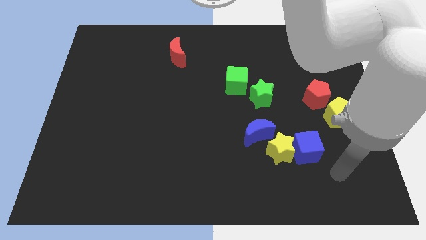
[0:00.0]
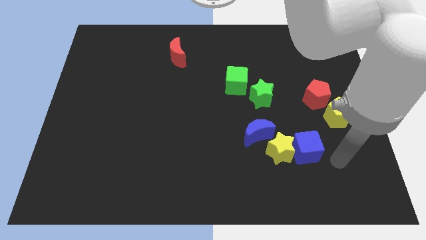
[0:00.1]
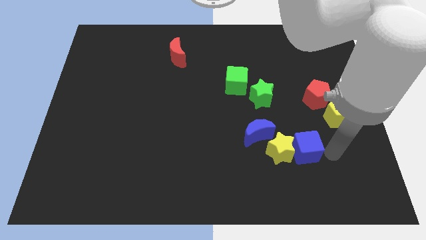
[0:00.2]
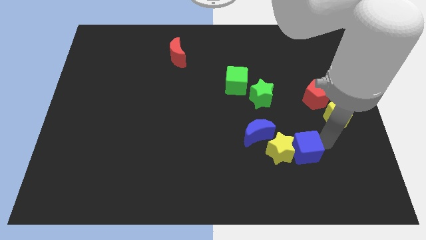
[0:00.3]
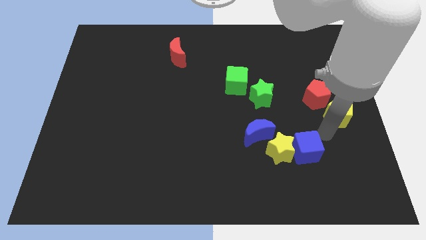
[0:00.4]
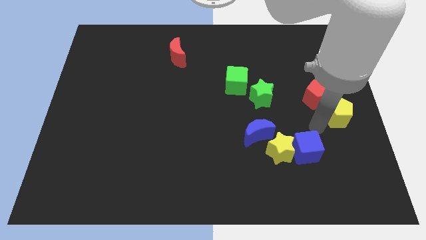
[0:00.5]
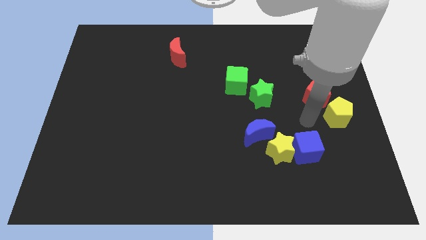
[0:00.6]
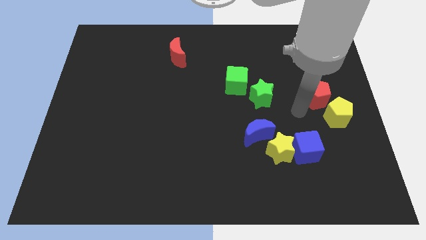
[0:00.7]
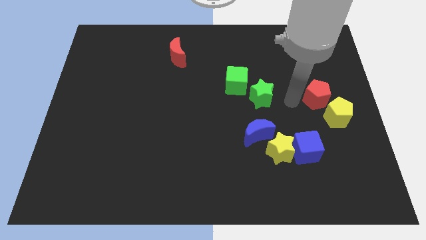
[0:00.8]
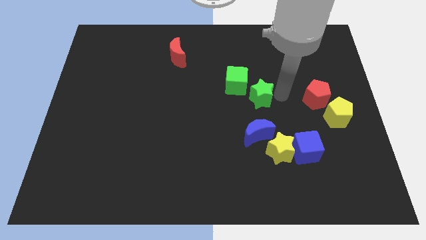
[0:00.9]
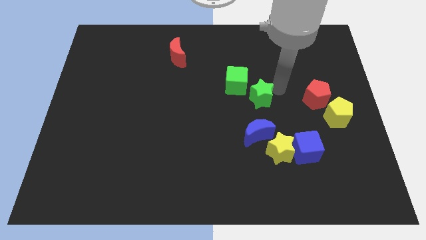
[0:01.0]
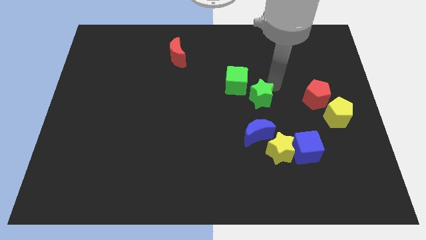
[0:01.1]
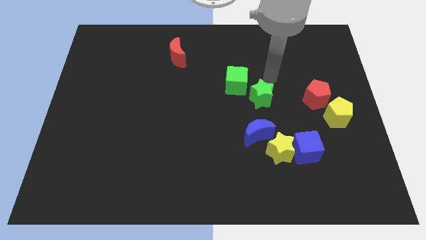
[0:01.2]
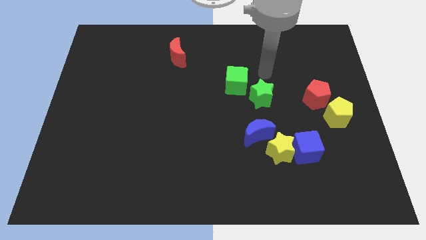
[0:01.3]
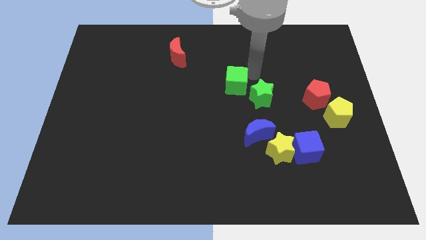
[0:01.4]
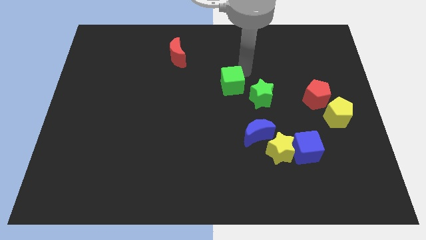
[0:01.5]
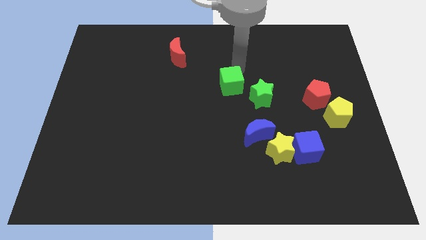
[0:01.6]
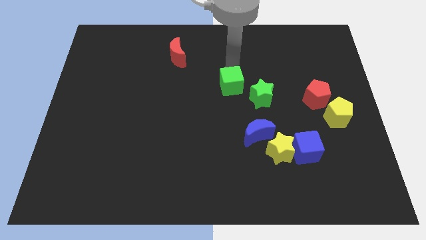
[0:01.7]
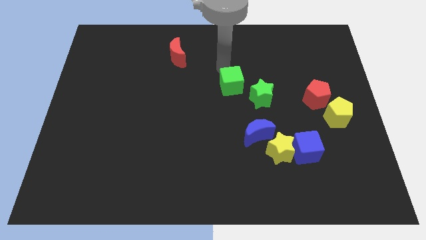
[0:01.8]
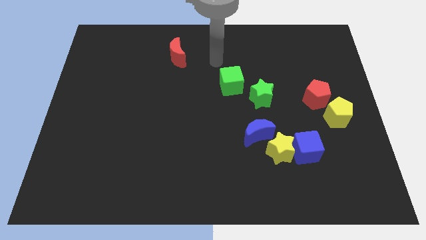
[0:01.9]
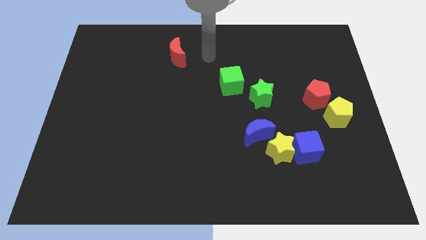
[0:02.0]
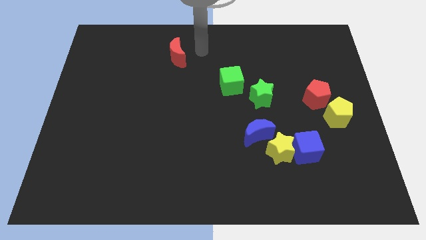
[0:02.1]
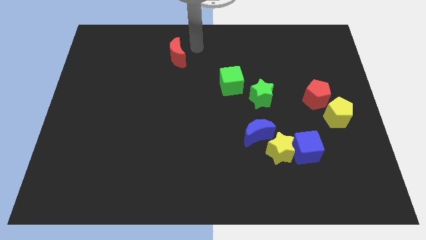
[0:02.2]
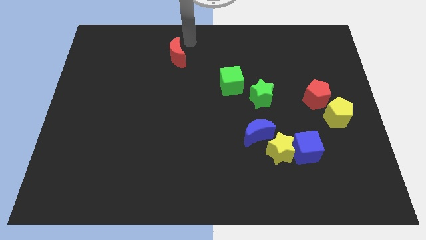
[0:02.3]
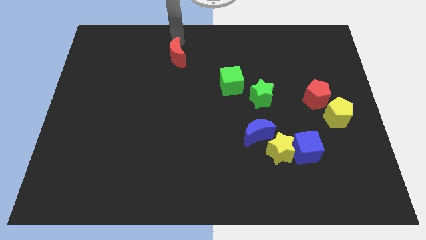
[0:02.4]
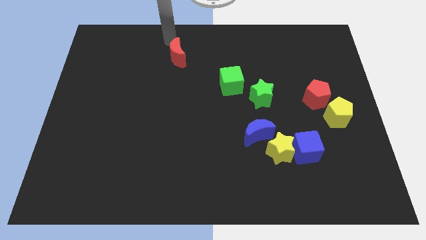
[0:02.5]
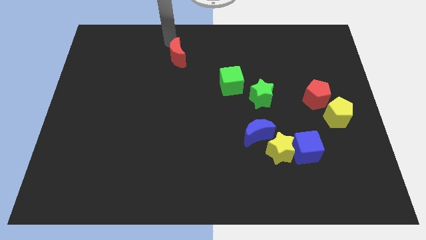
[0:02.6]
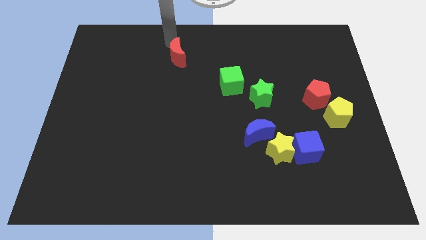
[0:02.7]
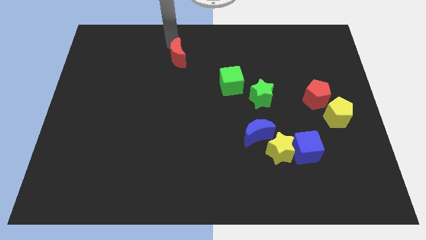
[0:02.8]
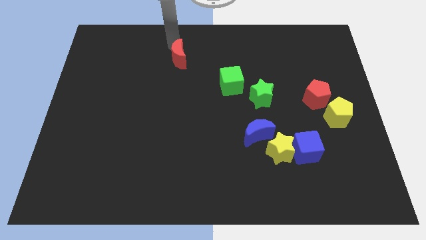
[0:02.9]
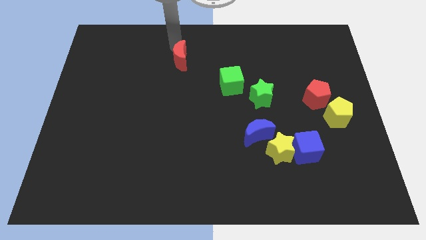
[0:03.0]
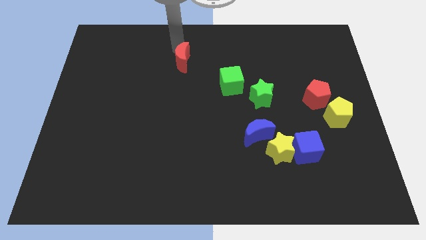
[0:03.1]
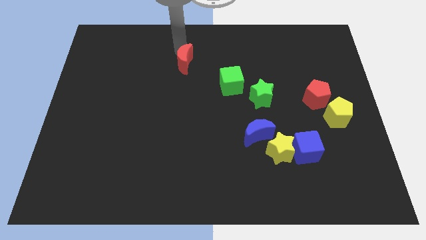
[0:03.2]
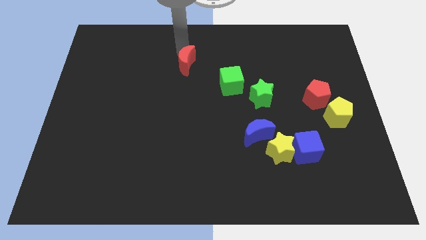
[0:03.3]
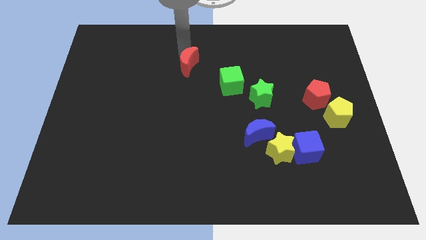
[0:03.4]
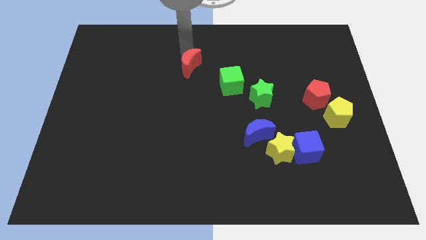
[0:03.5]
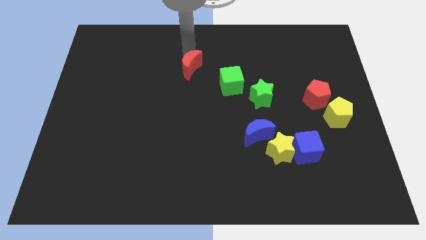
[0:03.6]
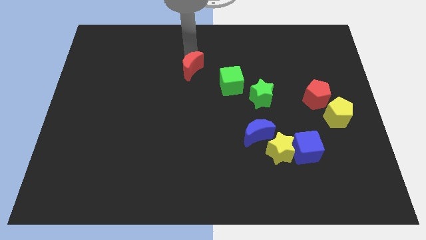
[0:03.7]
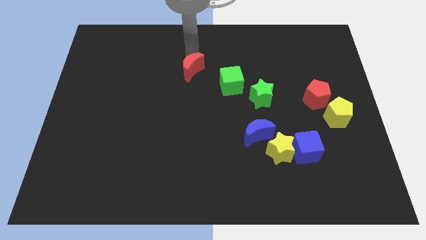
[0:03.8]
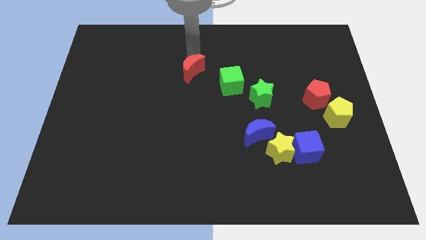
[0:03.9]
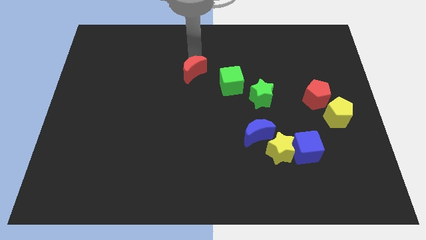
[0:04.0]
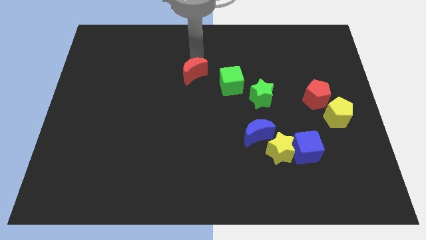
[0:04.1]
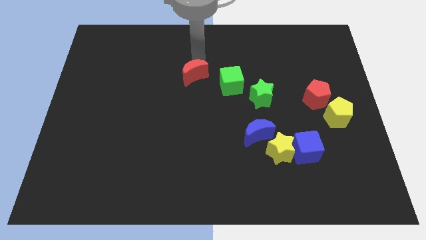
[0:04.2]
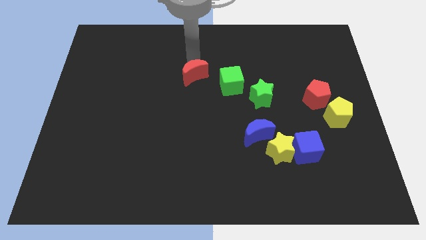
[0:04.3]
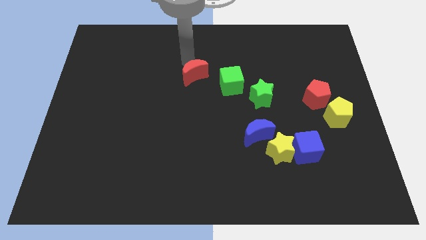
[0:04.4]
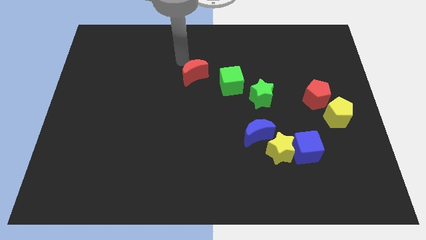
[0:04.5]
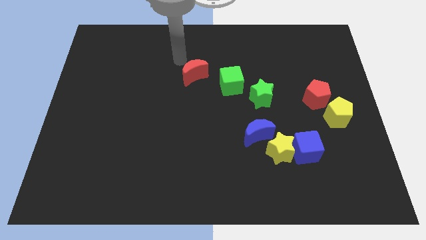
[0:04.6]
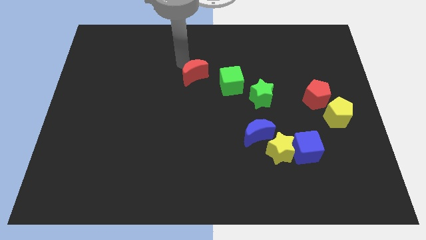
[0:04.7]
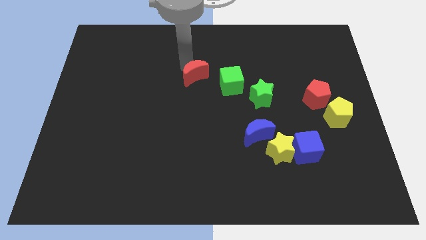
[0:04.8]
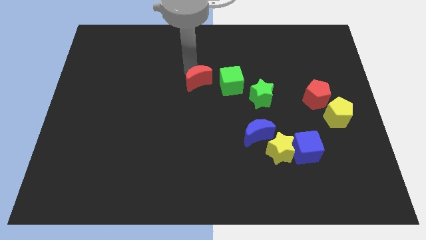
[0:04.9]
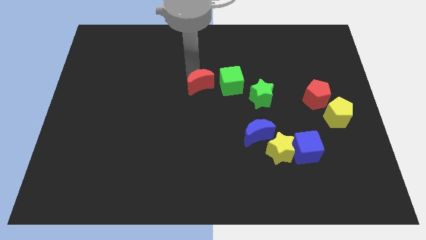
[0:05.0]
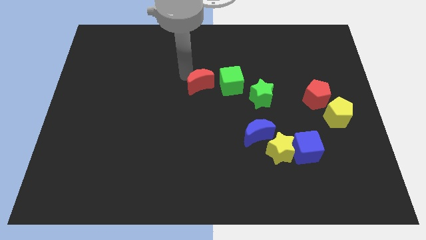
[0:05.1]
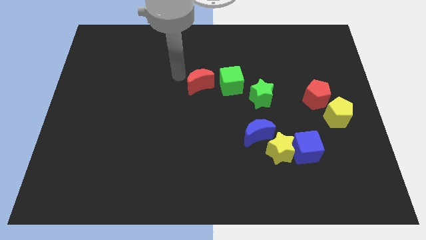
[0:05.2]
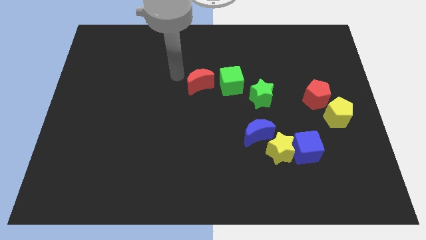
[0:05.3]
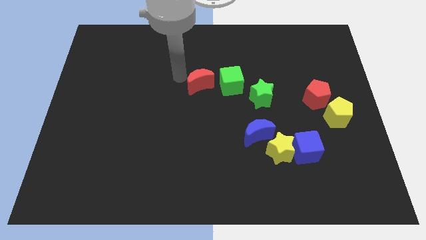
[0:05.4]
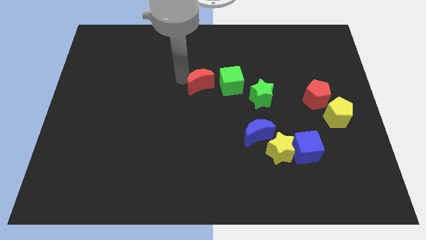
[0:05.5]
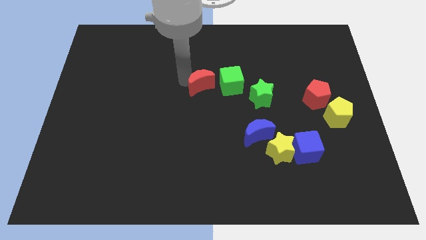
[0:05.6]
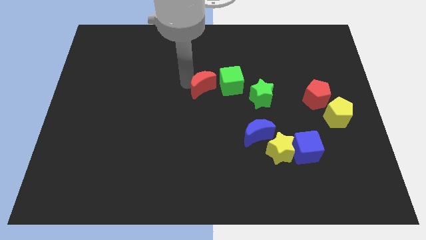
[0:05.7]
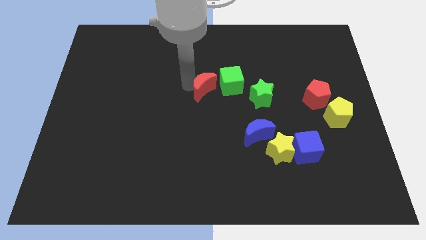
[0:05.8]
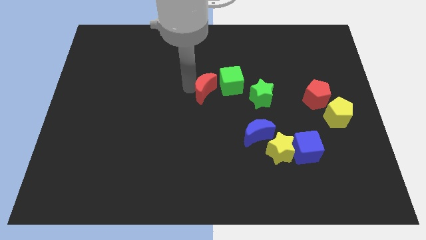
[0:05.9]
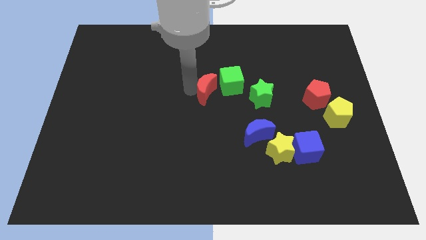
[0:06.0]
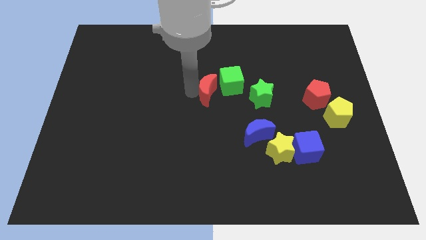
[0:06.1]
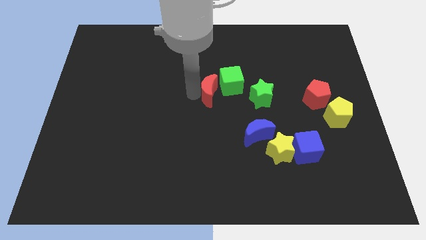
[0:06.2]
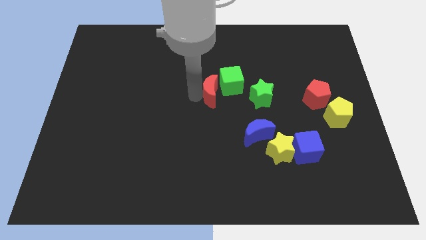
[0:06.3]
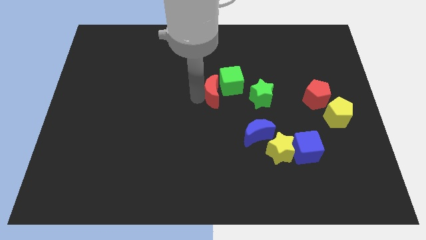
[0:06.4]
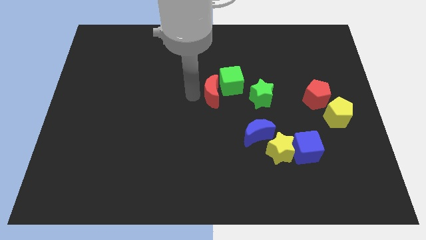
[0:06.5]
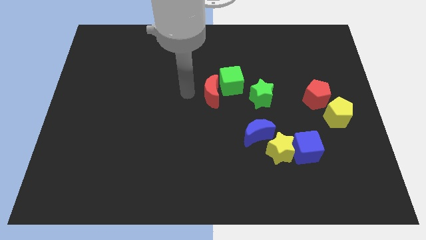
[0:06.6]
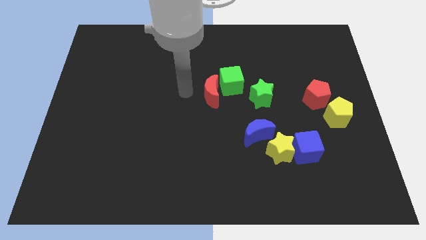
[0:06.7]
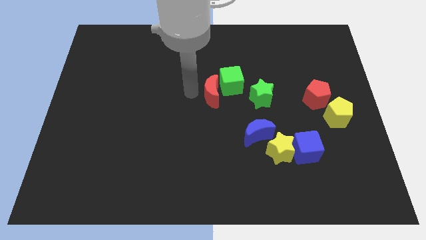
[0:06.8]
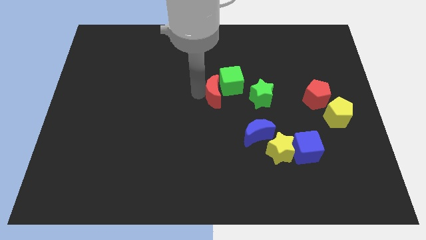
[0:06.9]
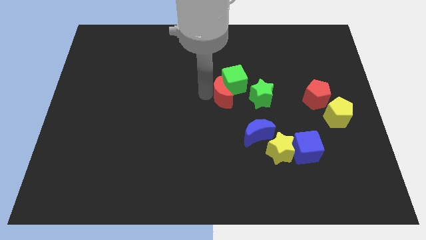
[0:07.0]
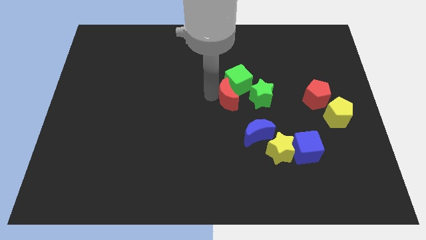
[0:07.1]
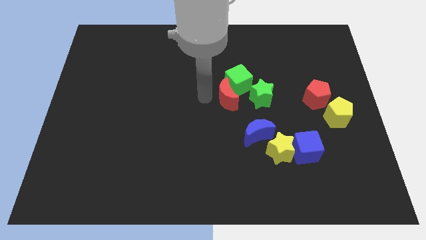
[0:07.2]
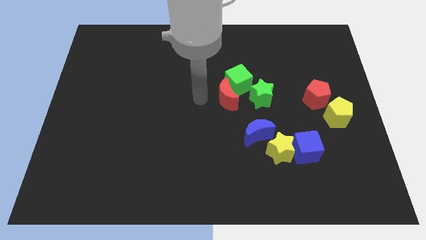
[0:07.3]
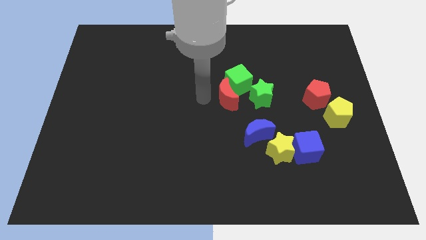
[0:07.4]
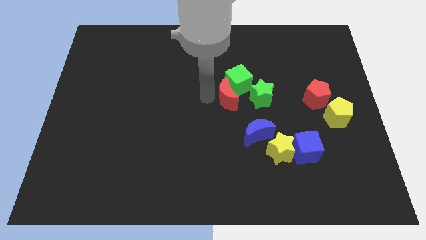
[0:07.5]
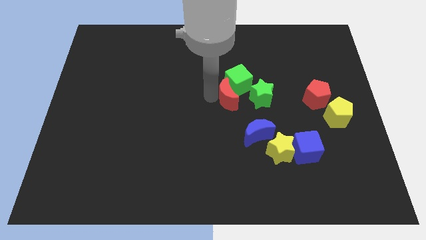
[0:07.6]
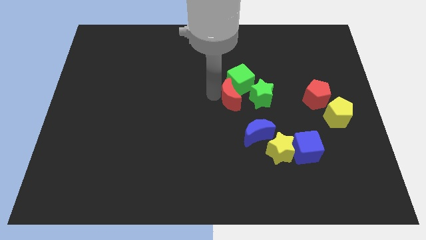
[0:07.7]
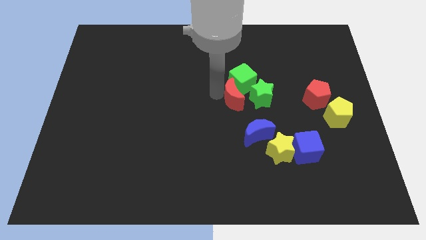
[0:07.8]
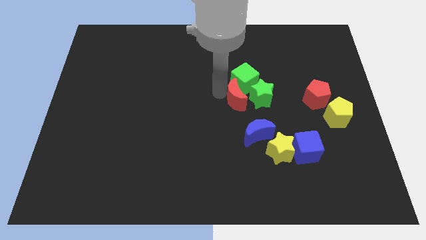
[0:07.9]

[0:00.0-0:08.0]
put the red moon next to the green star
